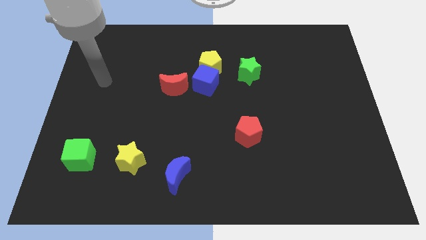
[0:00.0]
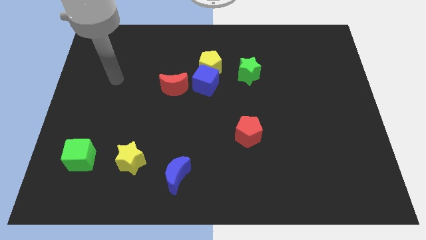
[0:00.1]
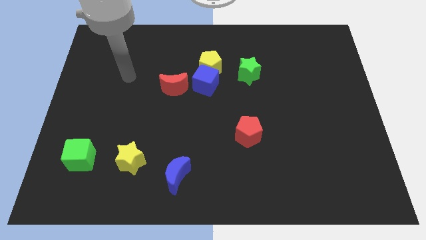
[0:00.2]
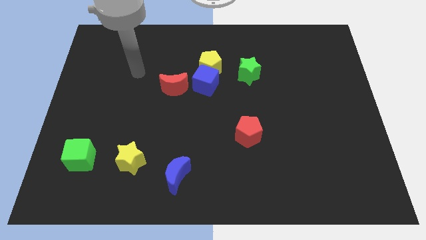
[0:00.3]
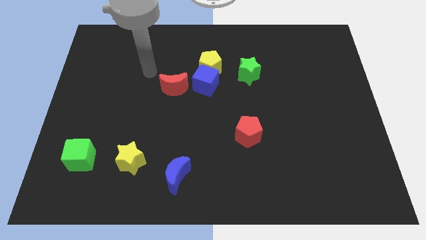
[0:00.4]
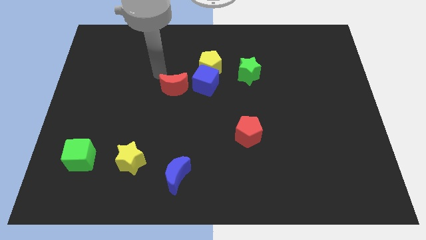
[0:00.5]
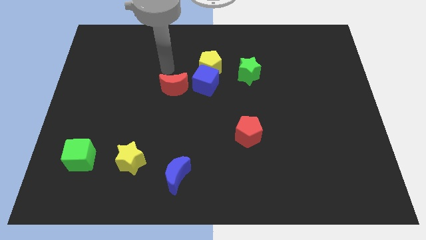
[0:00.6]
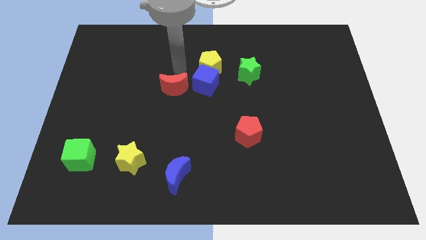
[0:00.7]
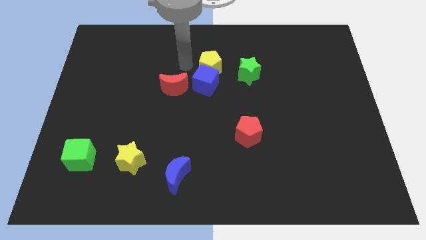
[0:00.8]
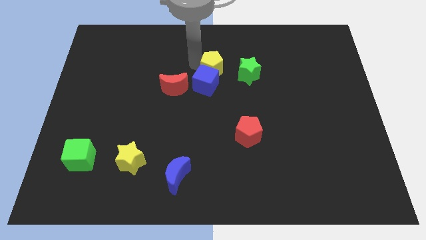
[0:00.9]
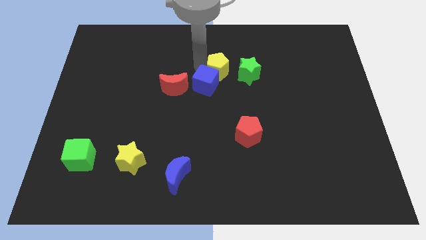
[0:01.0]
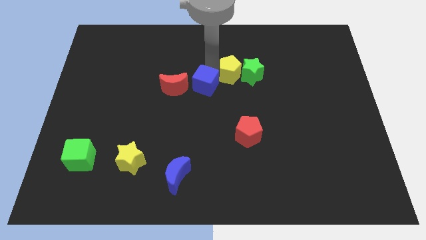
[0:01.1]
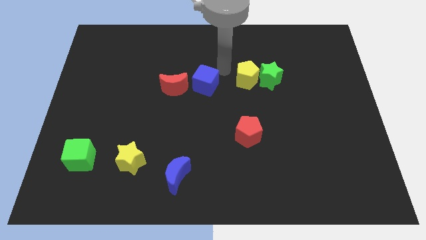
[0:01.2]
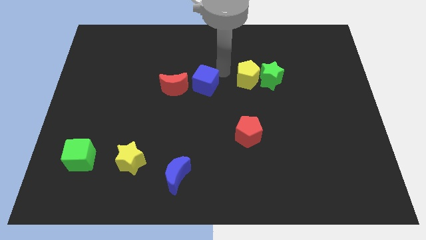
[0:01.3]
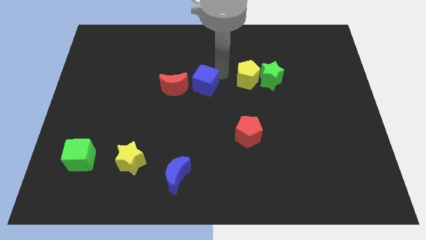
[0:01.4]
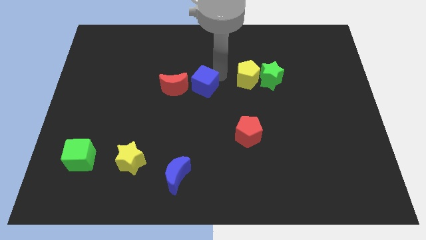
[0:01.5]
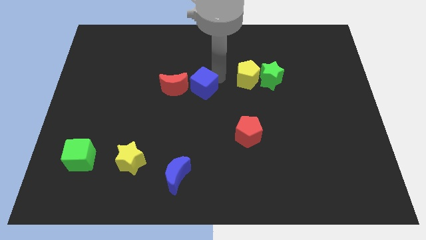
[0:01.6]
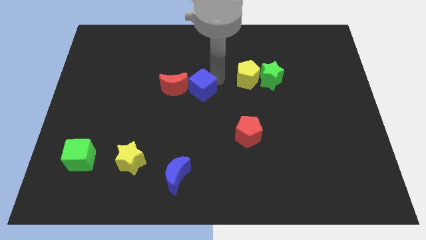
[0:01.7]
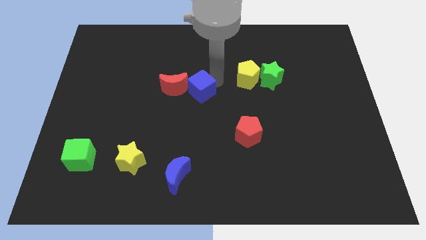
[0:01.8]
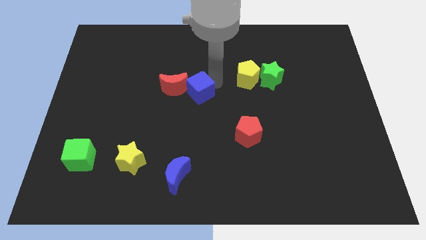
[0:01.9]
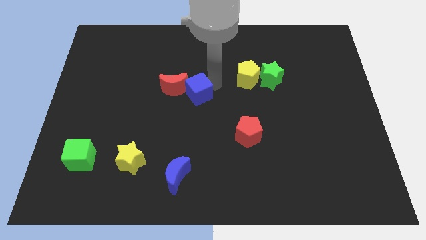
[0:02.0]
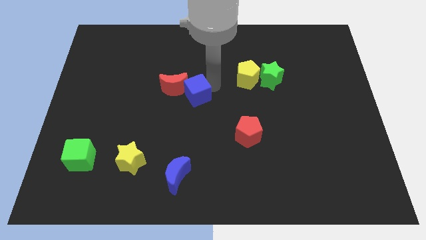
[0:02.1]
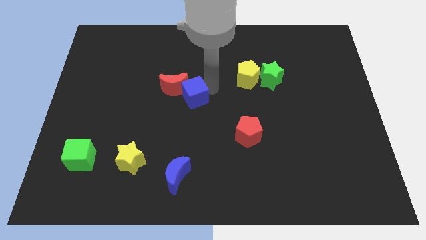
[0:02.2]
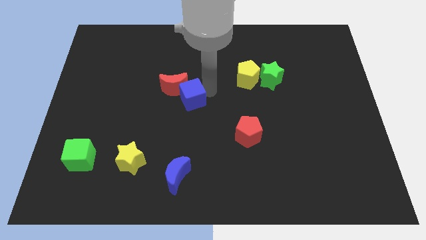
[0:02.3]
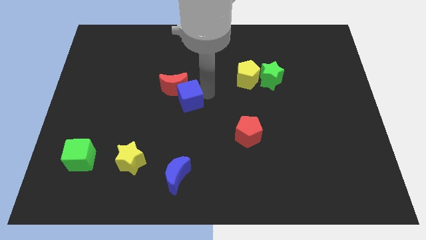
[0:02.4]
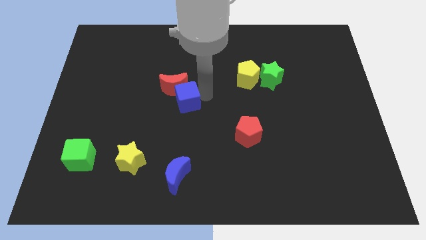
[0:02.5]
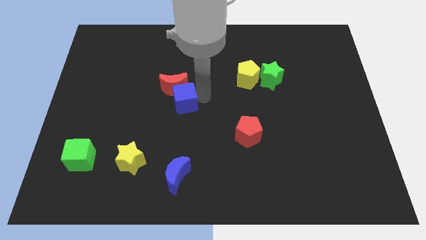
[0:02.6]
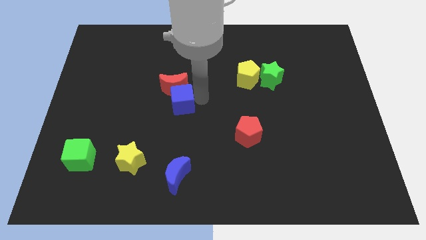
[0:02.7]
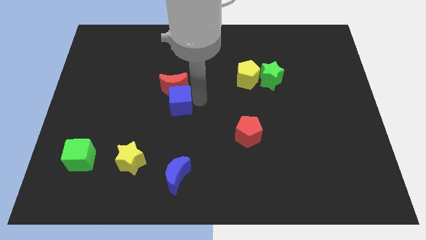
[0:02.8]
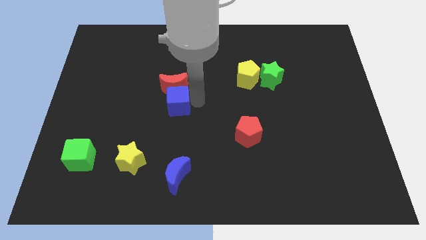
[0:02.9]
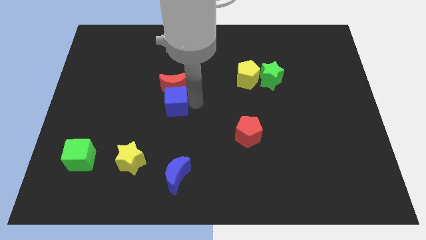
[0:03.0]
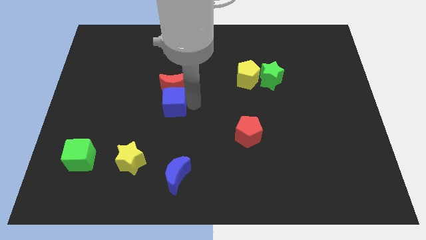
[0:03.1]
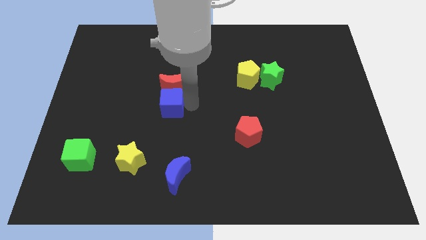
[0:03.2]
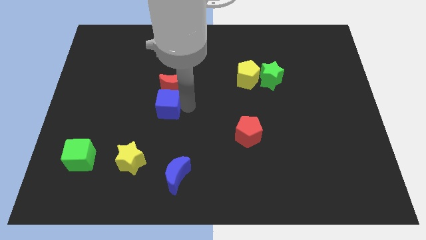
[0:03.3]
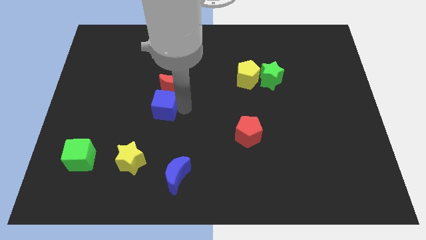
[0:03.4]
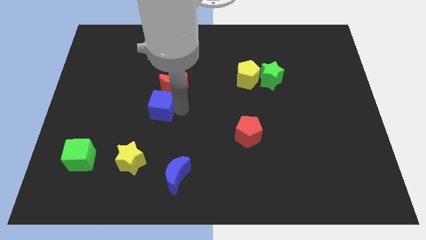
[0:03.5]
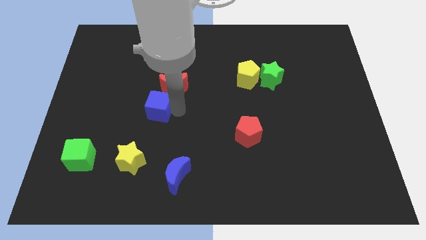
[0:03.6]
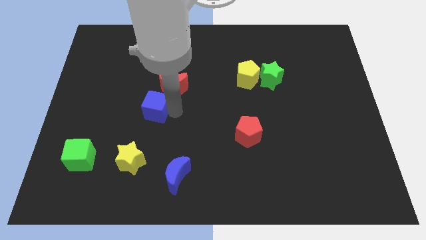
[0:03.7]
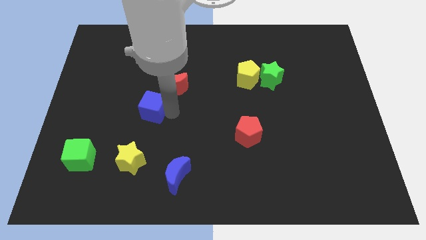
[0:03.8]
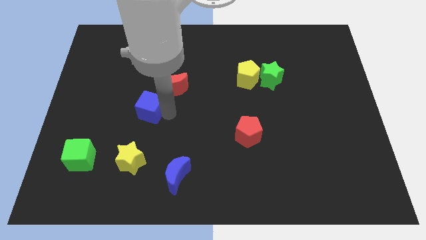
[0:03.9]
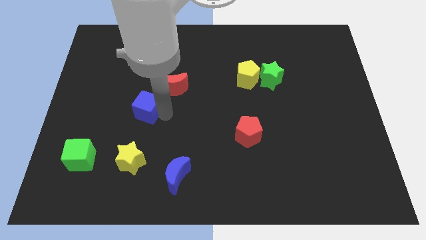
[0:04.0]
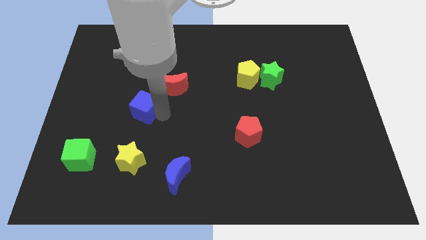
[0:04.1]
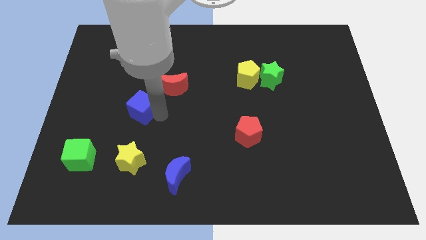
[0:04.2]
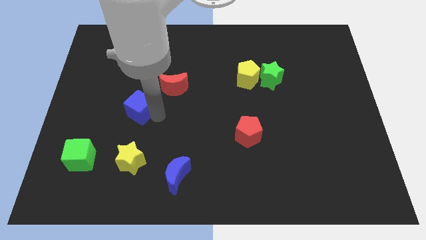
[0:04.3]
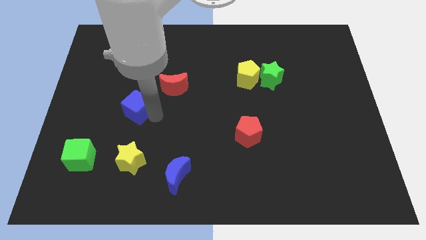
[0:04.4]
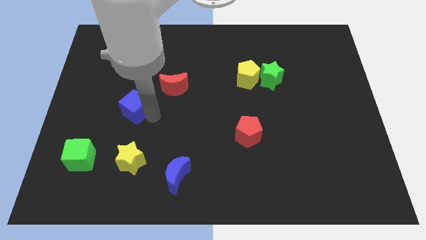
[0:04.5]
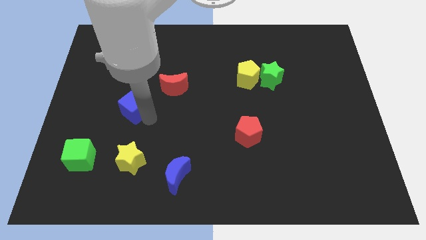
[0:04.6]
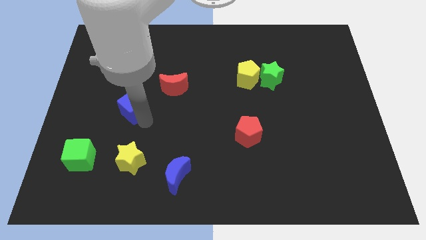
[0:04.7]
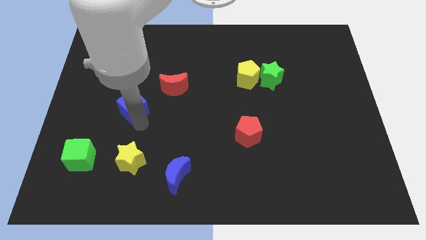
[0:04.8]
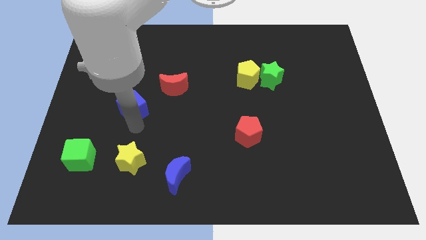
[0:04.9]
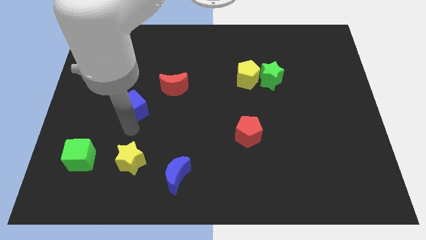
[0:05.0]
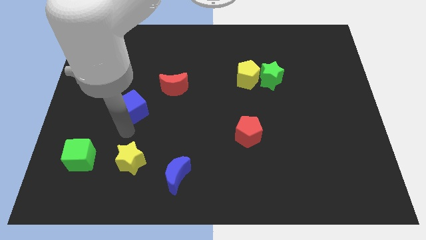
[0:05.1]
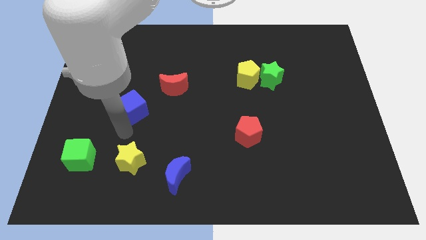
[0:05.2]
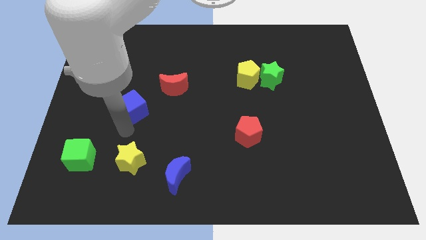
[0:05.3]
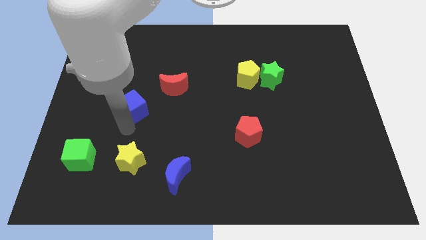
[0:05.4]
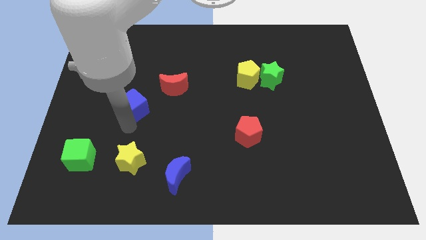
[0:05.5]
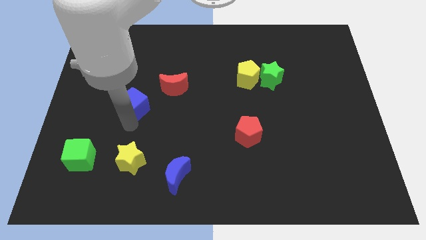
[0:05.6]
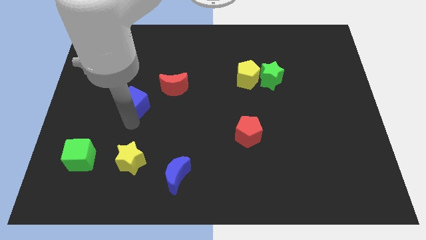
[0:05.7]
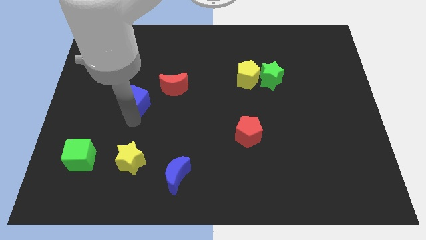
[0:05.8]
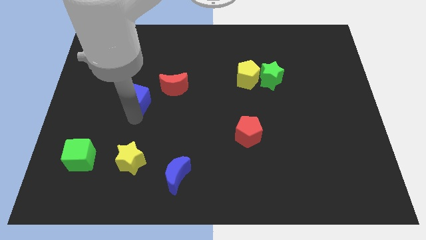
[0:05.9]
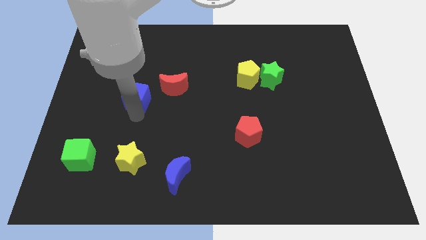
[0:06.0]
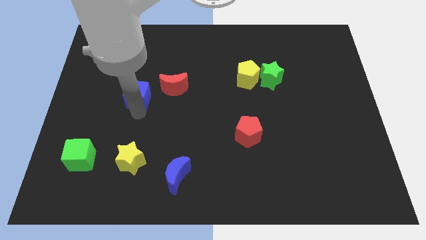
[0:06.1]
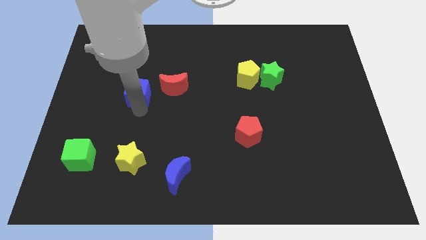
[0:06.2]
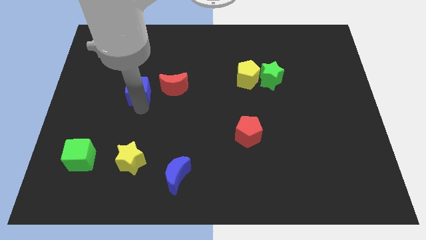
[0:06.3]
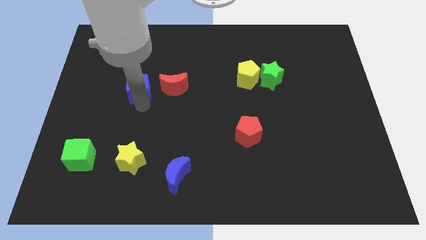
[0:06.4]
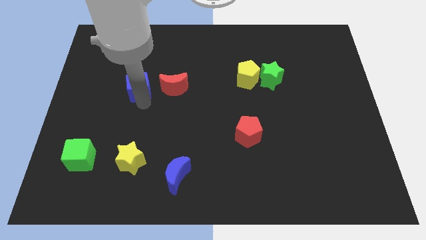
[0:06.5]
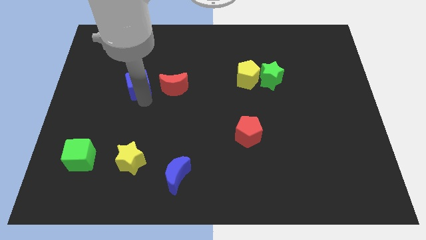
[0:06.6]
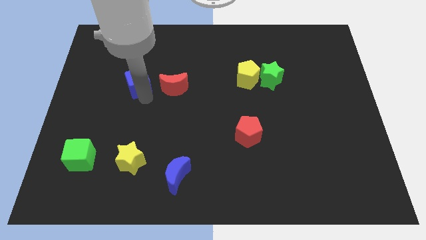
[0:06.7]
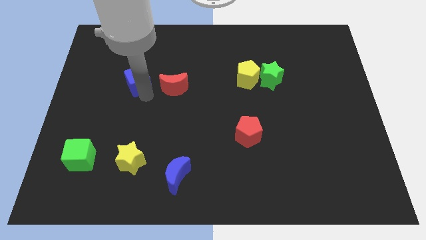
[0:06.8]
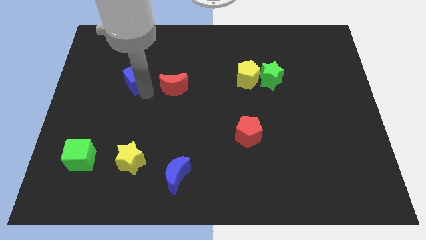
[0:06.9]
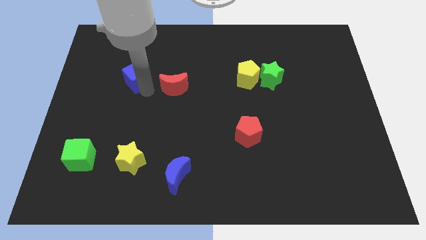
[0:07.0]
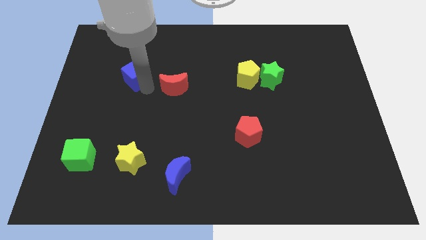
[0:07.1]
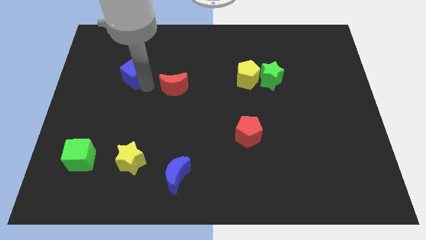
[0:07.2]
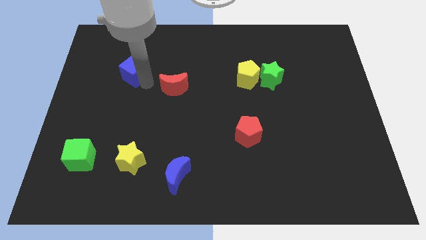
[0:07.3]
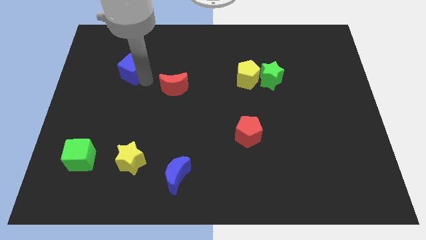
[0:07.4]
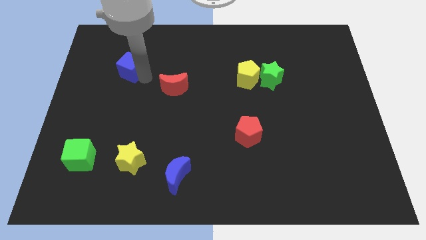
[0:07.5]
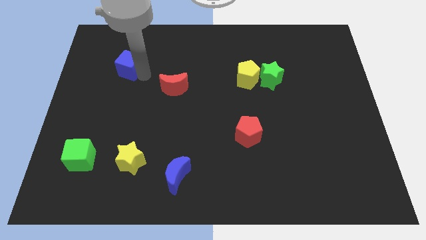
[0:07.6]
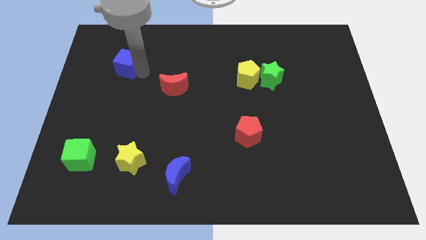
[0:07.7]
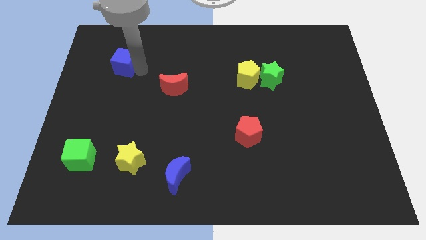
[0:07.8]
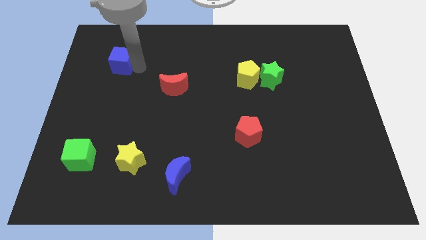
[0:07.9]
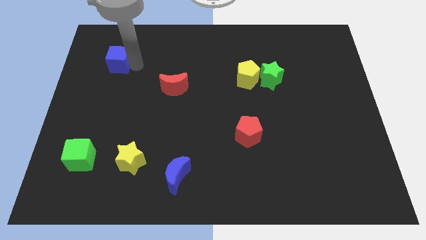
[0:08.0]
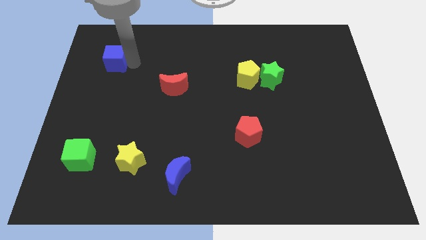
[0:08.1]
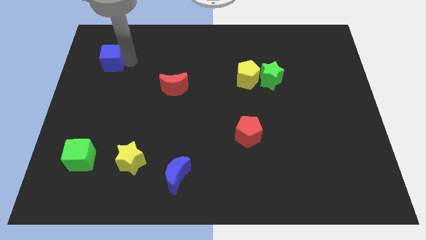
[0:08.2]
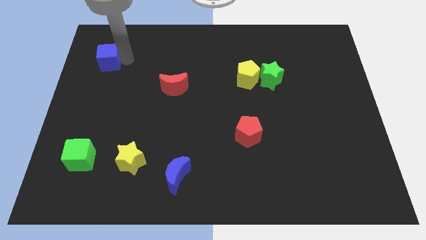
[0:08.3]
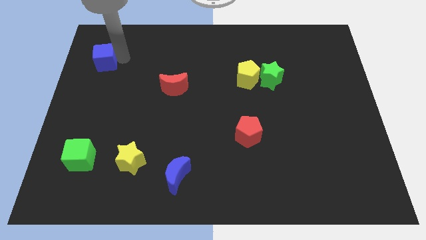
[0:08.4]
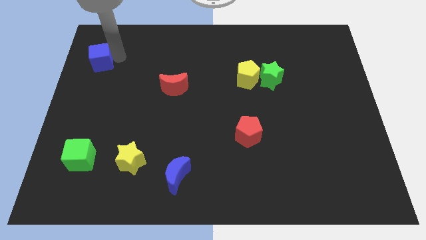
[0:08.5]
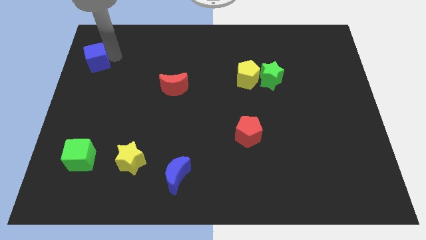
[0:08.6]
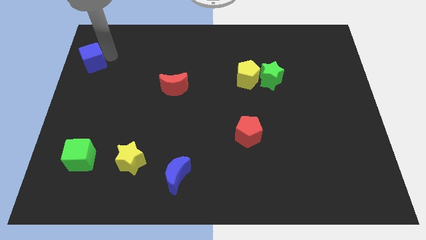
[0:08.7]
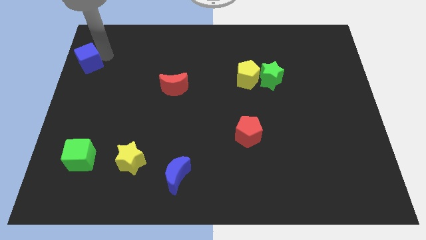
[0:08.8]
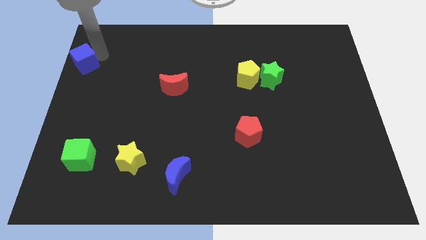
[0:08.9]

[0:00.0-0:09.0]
slide the blue cube to the left side
